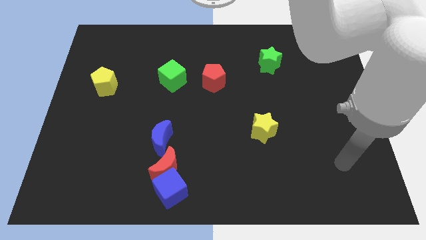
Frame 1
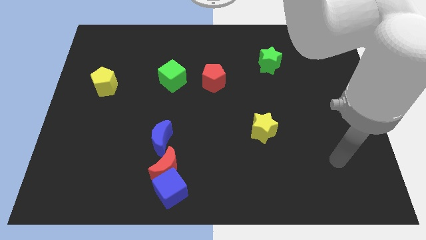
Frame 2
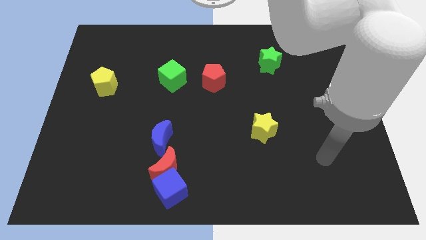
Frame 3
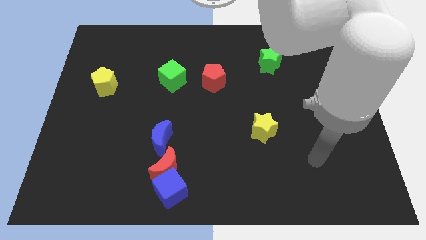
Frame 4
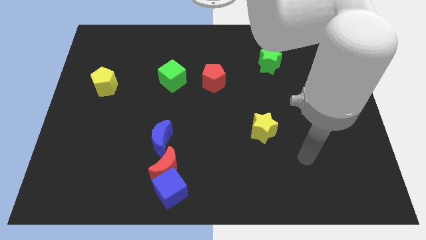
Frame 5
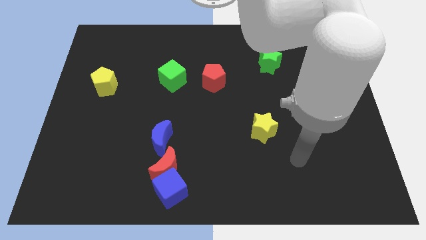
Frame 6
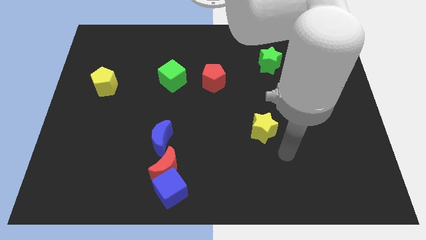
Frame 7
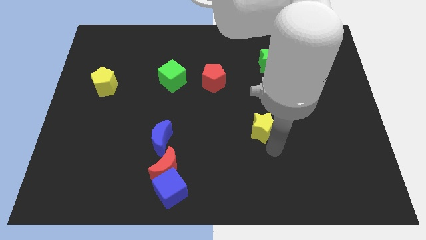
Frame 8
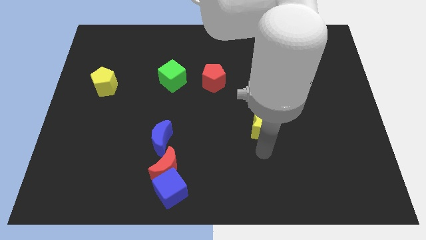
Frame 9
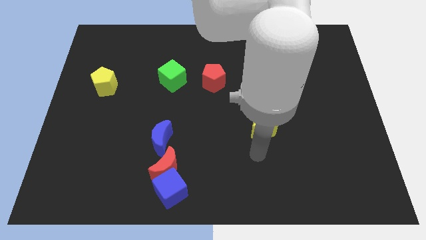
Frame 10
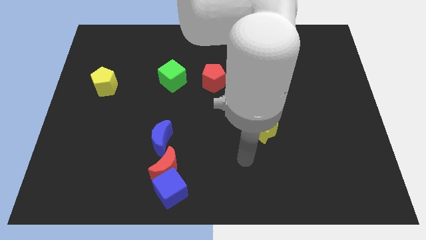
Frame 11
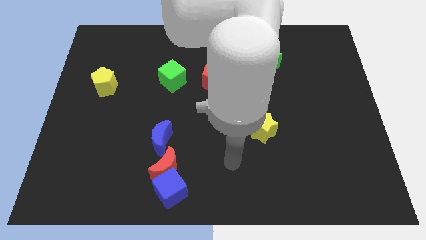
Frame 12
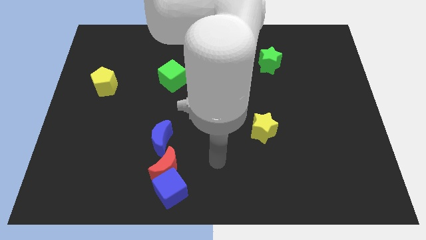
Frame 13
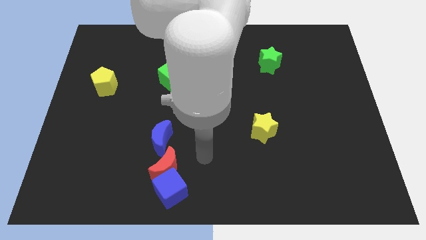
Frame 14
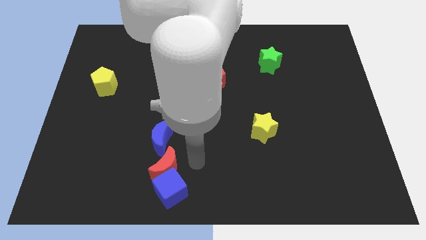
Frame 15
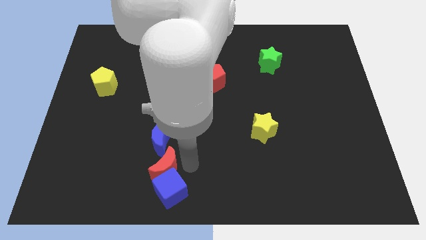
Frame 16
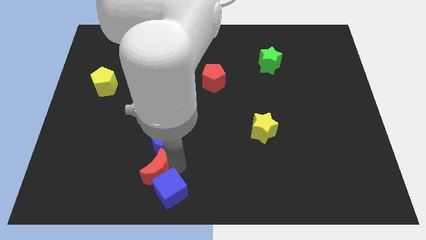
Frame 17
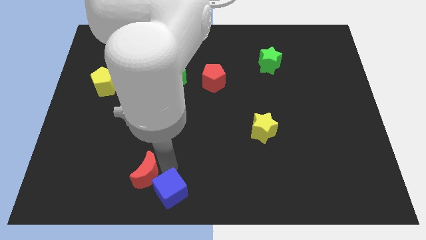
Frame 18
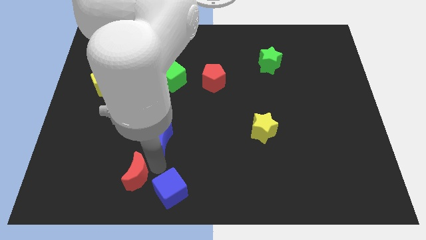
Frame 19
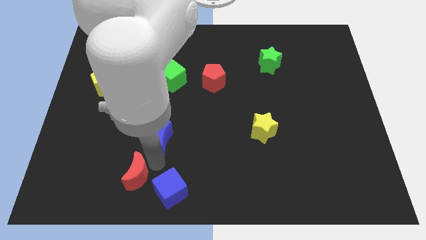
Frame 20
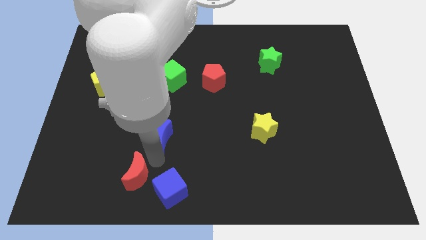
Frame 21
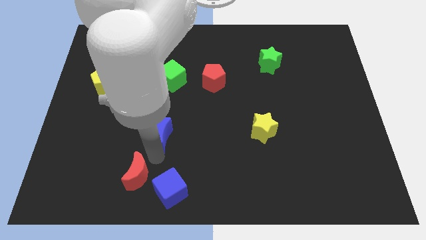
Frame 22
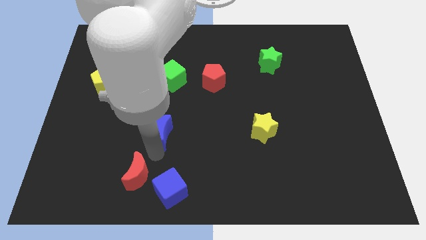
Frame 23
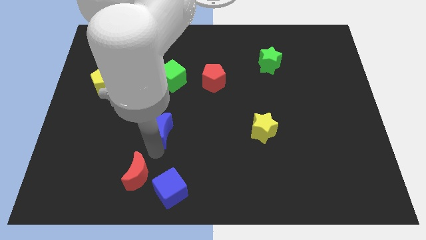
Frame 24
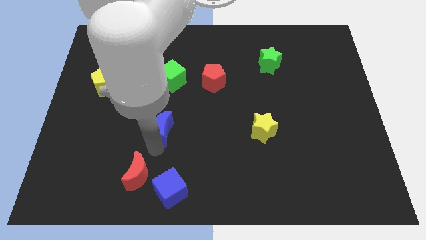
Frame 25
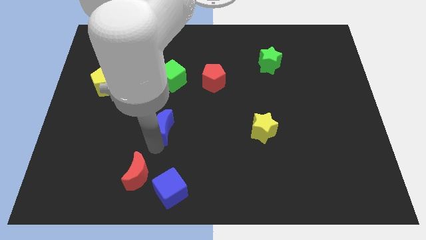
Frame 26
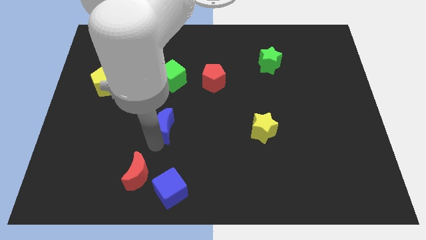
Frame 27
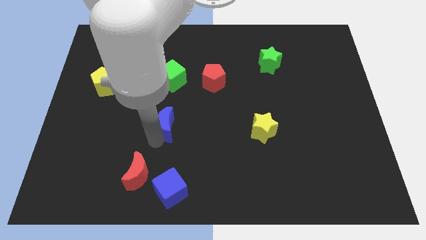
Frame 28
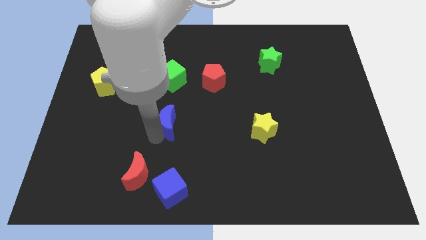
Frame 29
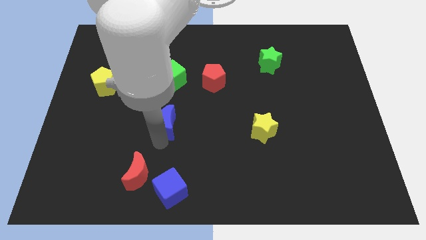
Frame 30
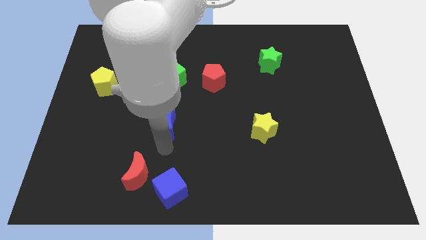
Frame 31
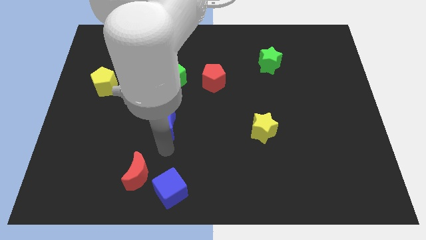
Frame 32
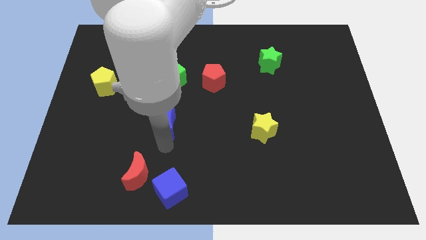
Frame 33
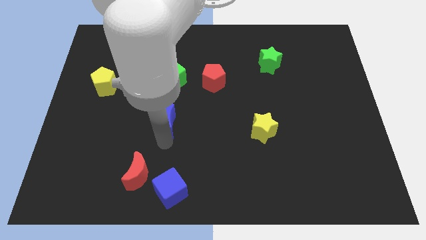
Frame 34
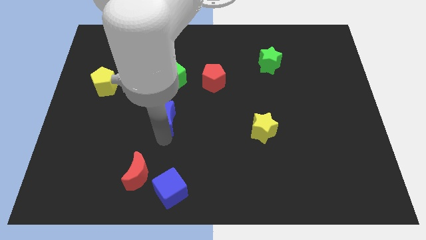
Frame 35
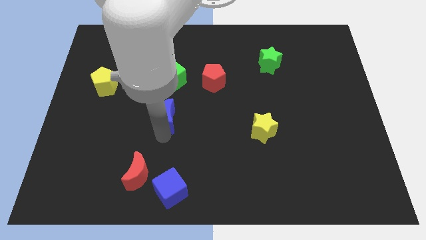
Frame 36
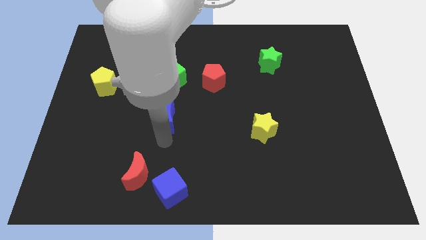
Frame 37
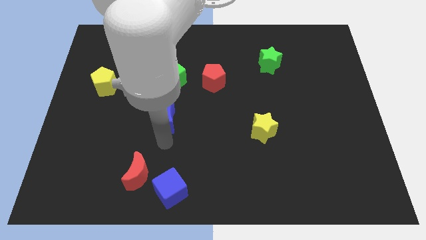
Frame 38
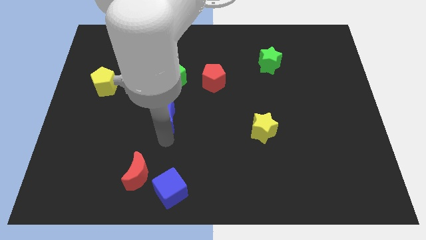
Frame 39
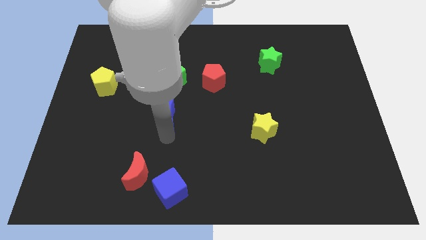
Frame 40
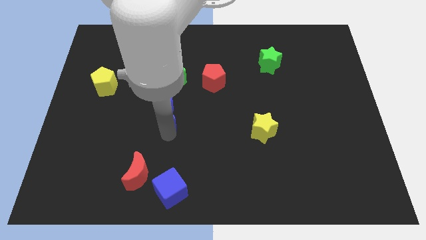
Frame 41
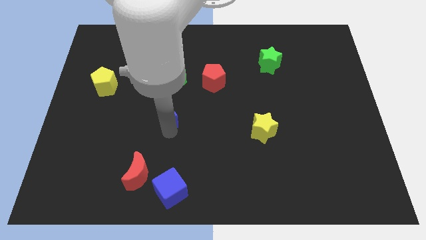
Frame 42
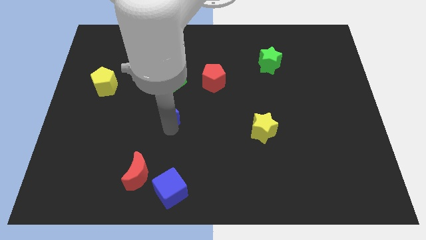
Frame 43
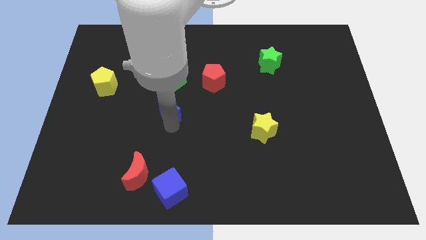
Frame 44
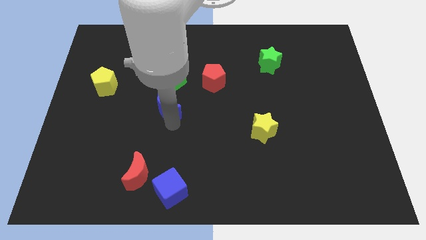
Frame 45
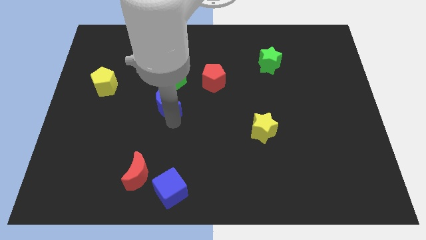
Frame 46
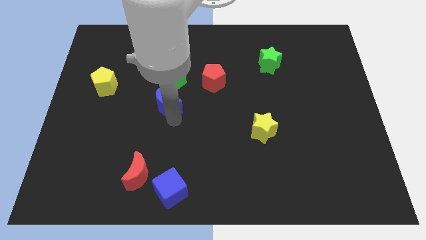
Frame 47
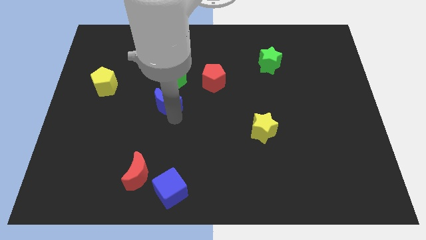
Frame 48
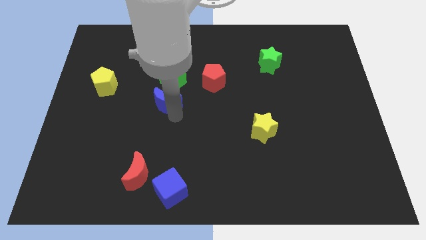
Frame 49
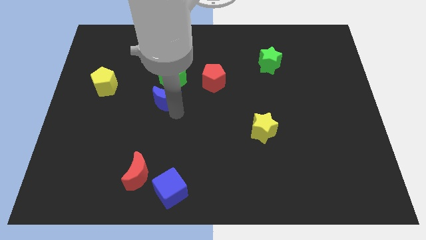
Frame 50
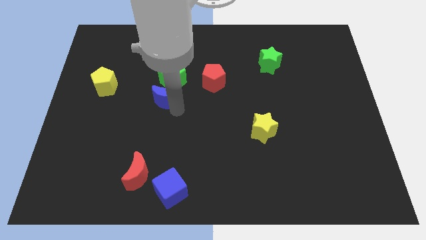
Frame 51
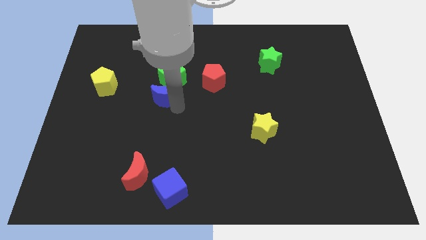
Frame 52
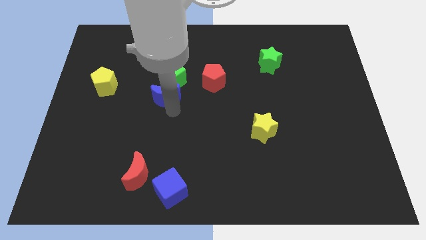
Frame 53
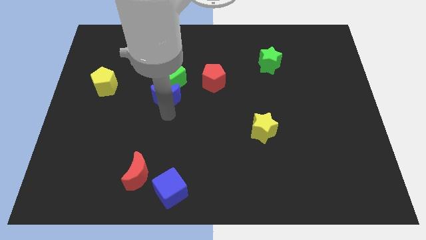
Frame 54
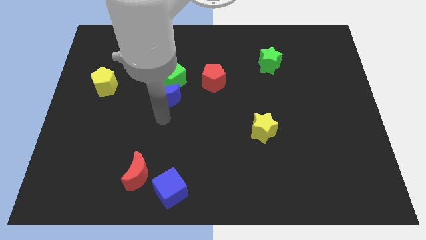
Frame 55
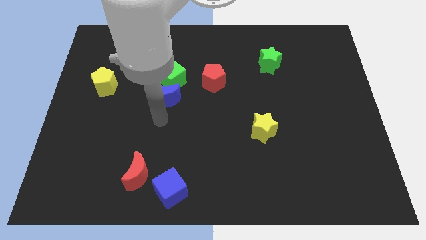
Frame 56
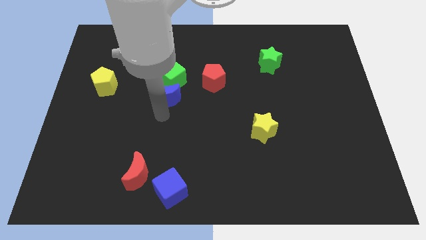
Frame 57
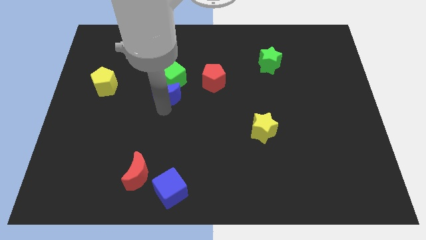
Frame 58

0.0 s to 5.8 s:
move the blue moon to the green cube

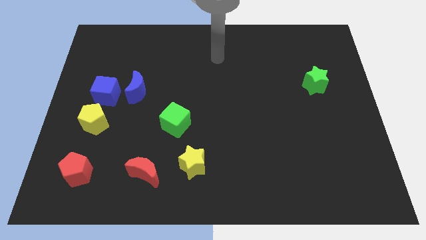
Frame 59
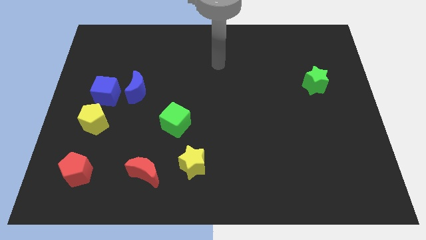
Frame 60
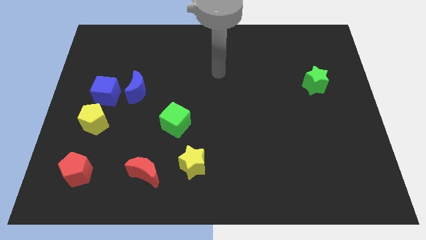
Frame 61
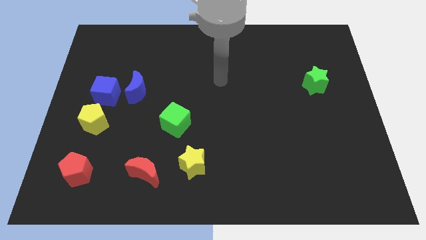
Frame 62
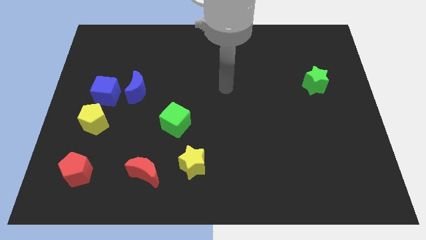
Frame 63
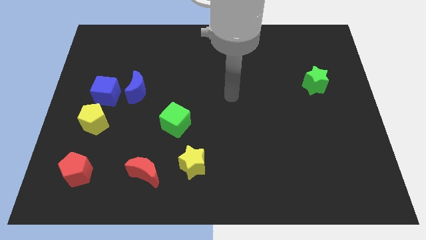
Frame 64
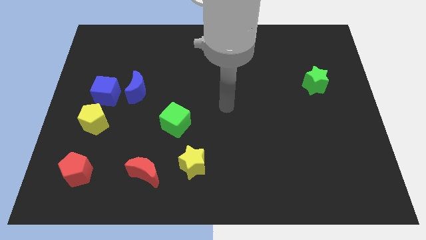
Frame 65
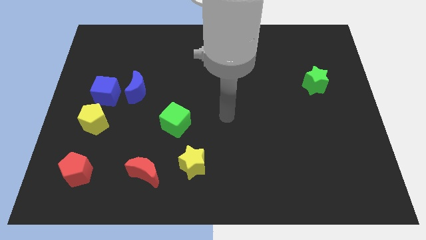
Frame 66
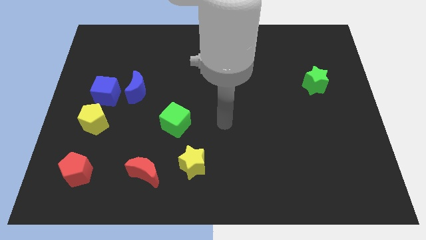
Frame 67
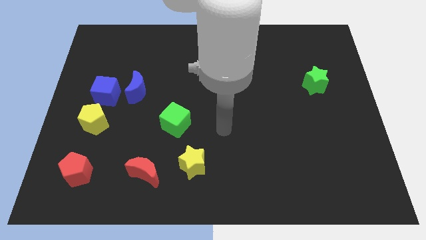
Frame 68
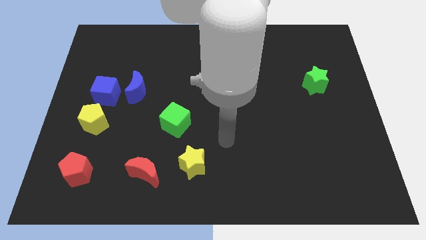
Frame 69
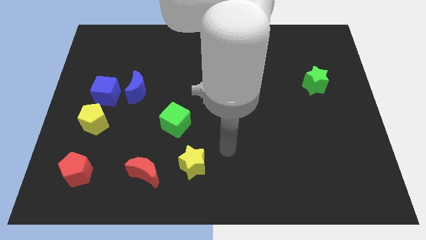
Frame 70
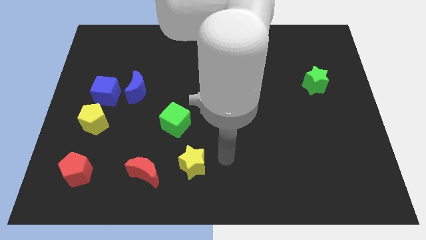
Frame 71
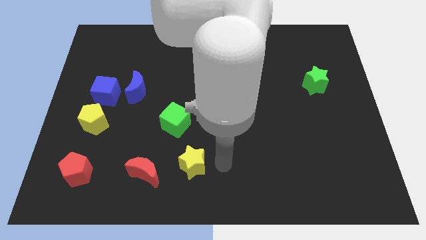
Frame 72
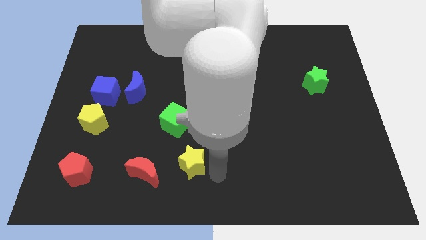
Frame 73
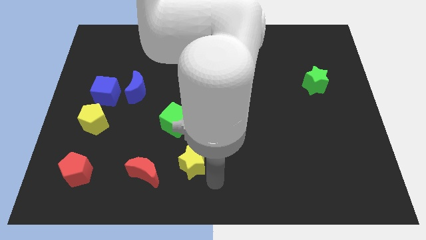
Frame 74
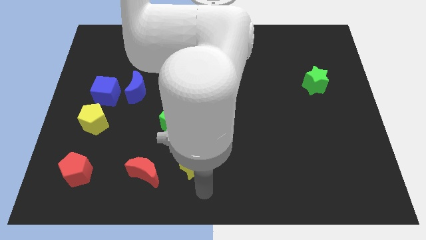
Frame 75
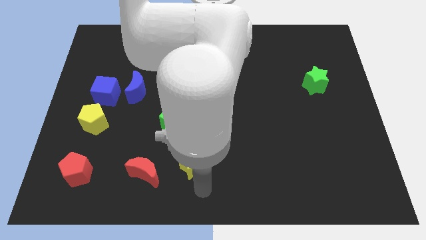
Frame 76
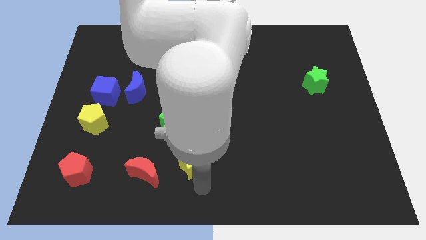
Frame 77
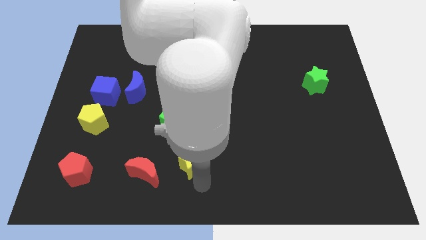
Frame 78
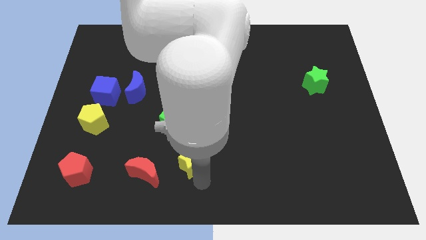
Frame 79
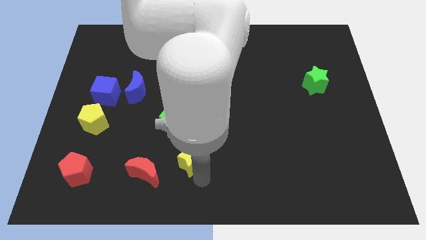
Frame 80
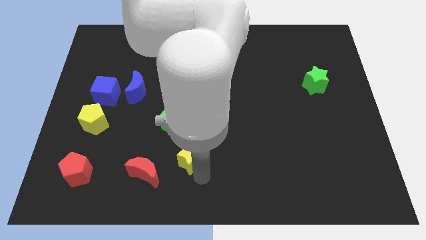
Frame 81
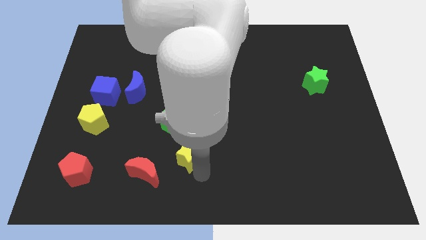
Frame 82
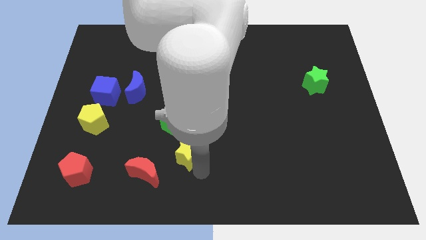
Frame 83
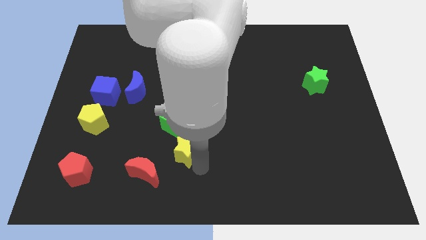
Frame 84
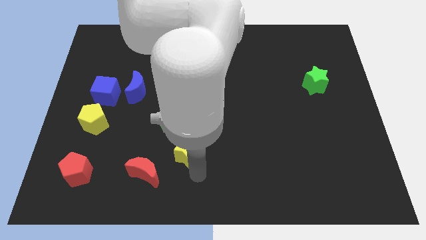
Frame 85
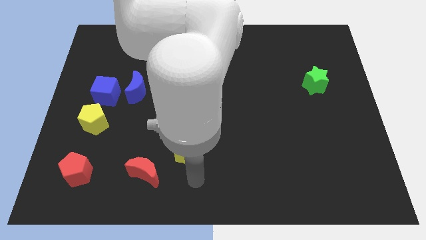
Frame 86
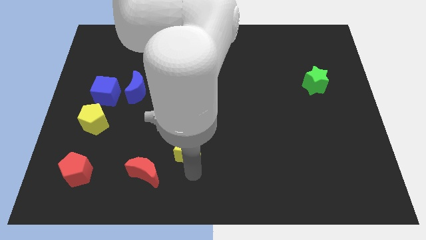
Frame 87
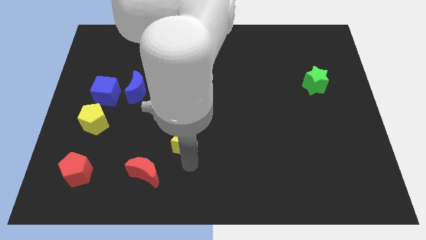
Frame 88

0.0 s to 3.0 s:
put the yellow star to the green cube
